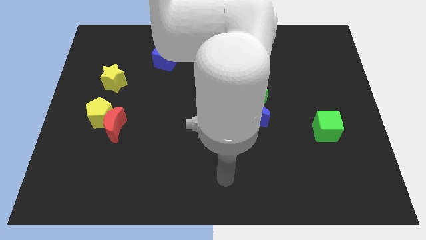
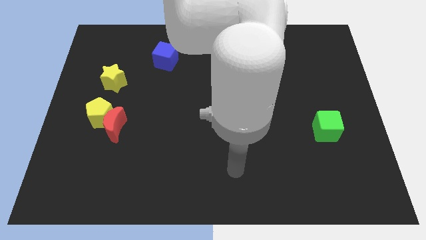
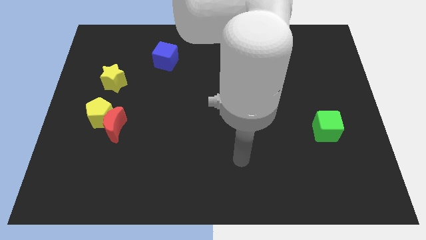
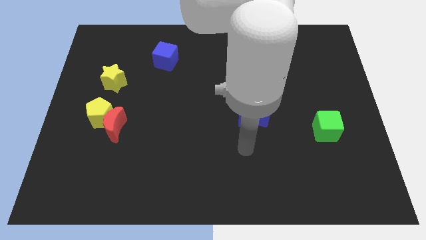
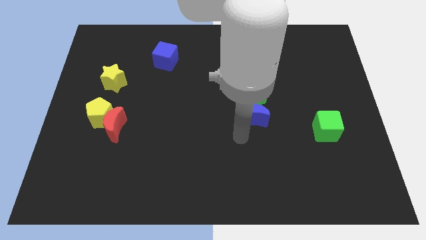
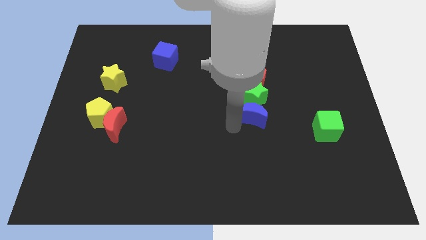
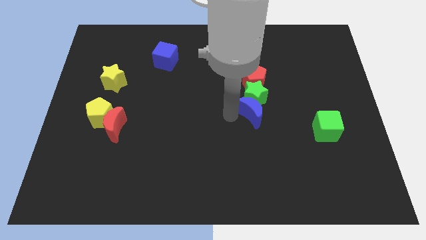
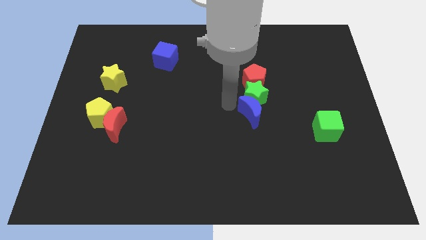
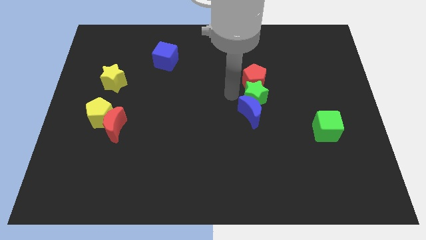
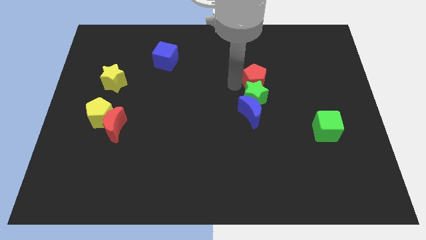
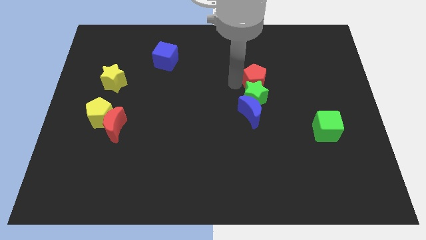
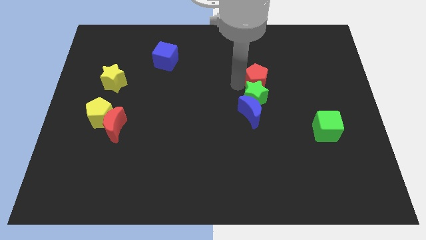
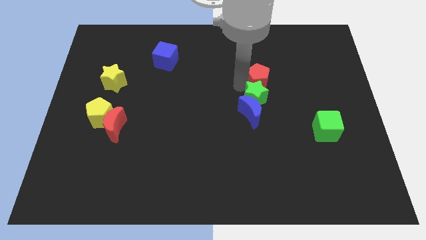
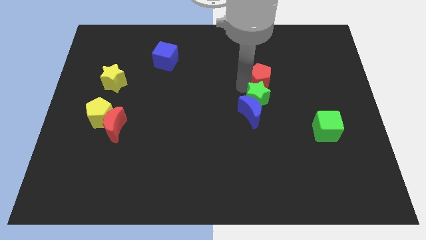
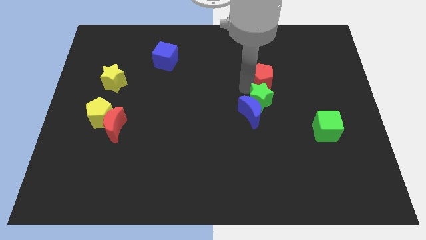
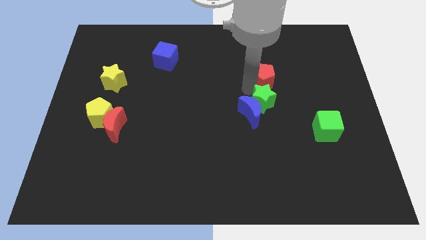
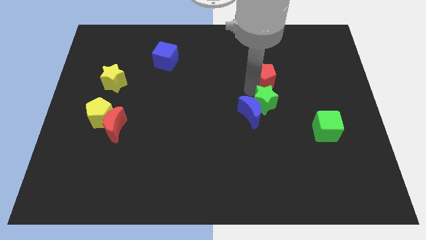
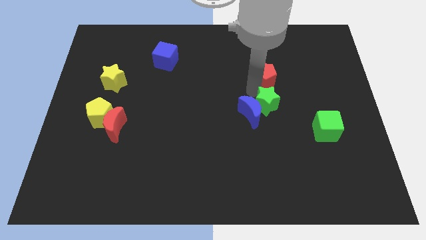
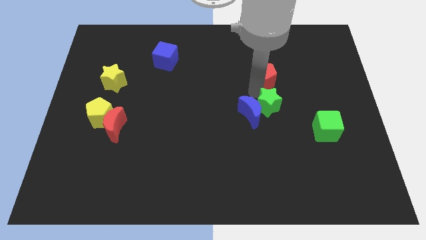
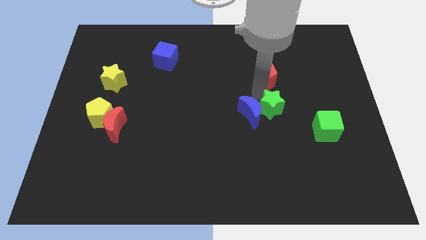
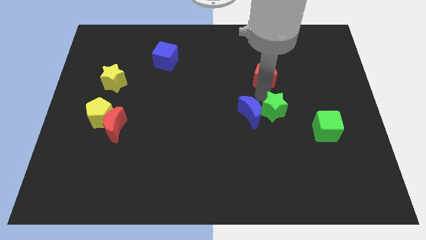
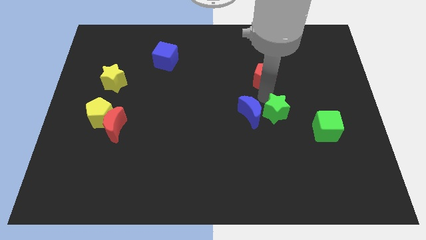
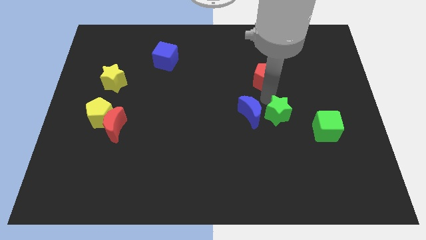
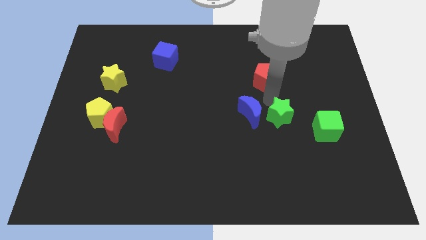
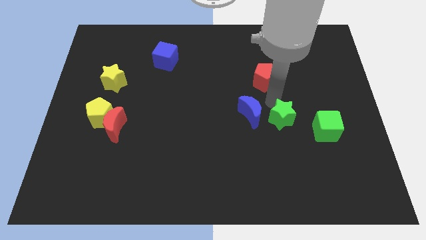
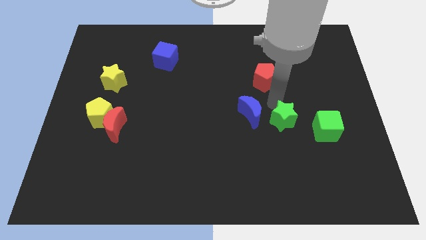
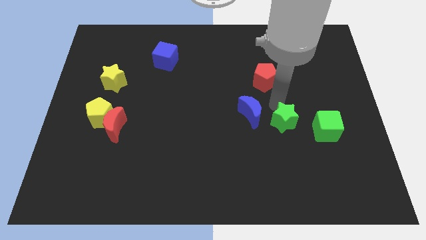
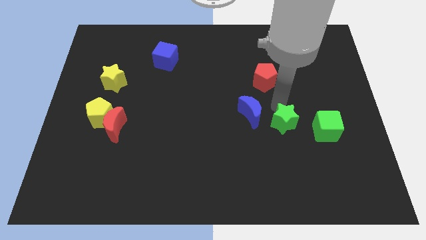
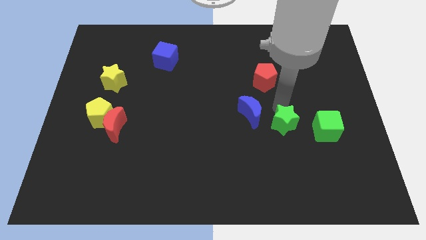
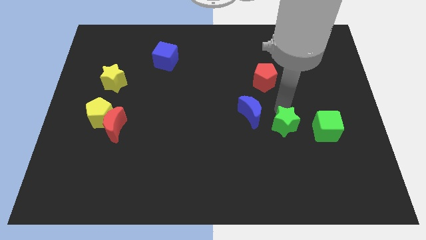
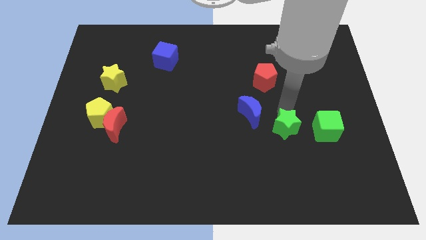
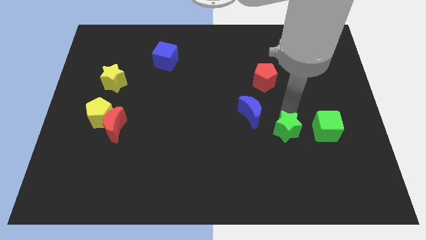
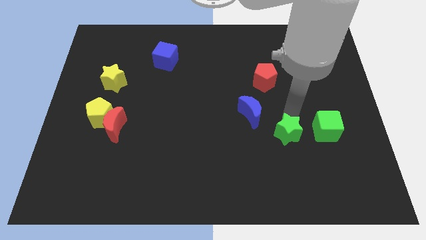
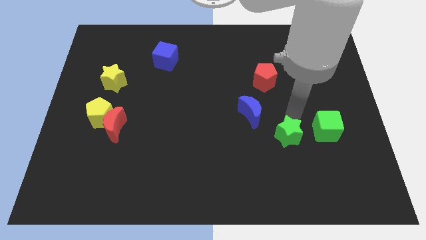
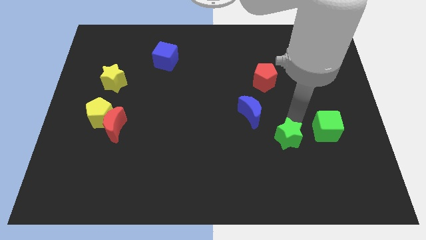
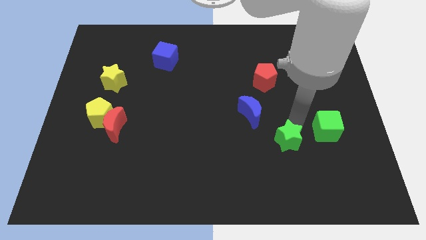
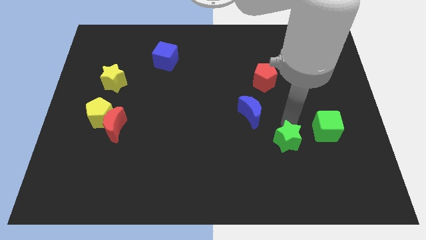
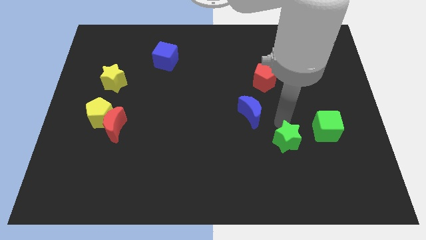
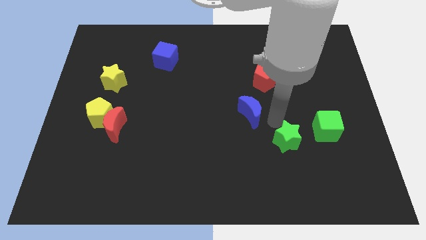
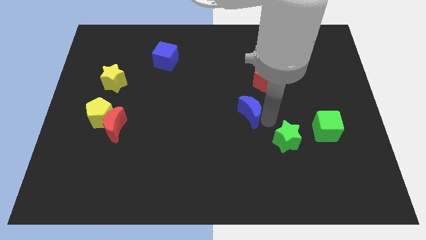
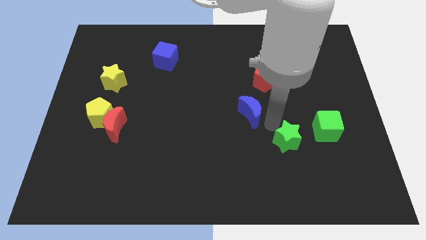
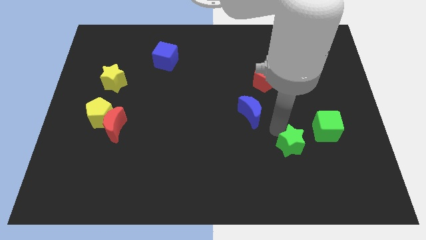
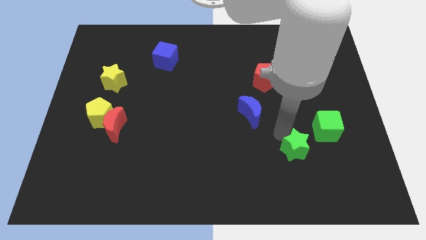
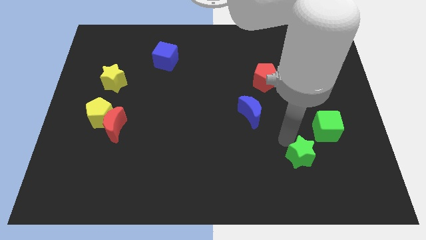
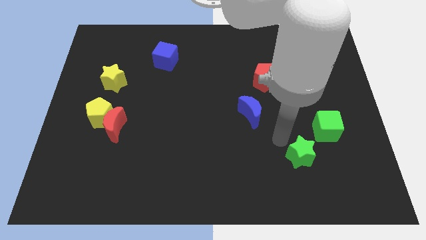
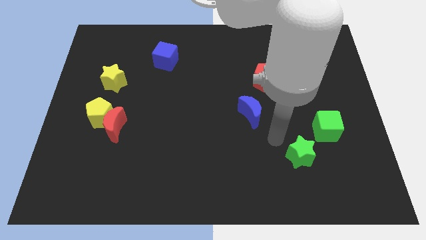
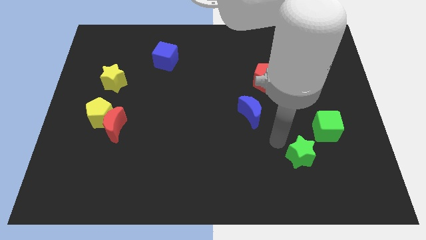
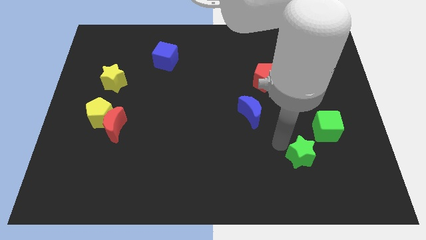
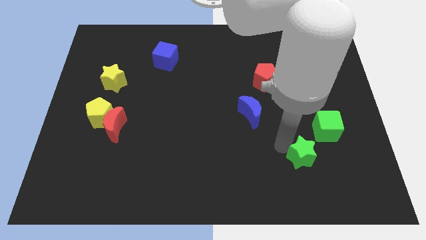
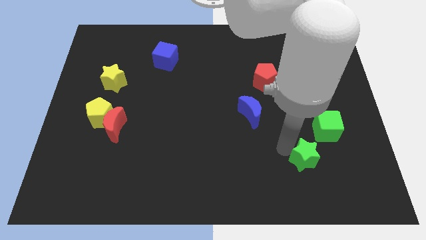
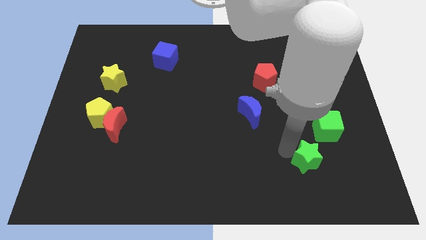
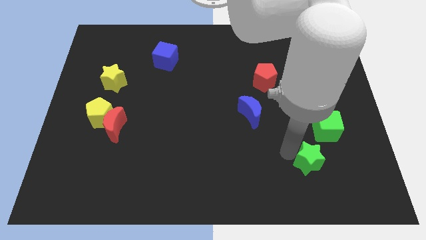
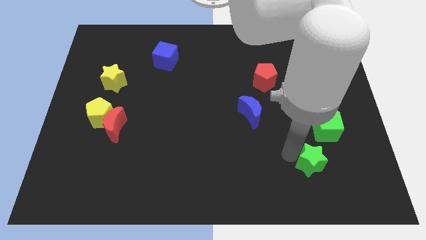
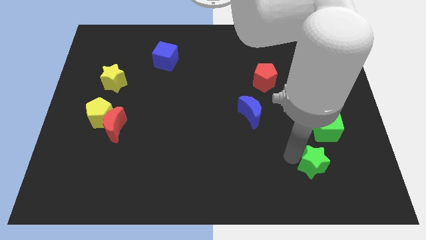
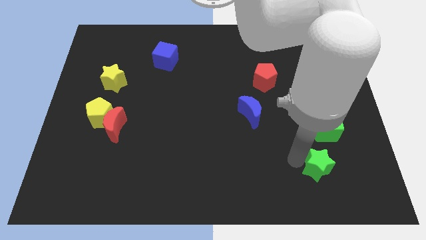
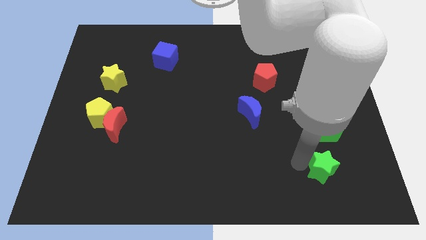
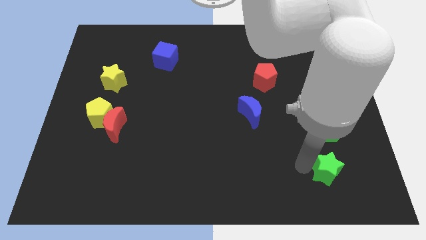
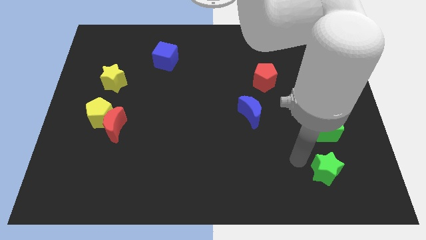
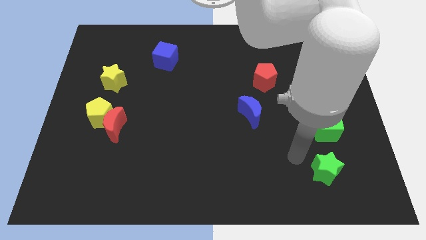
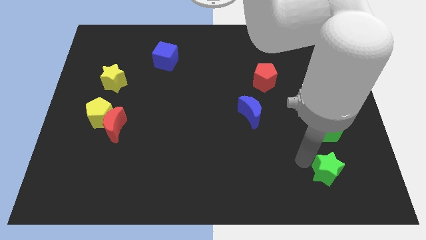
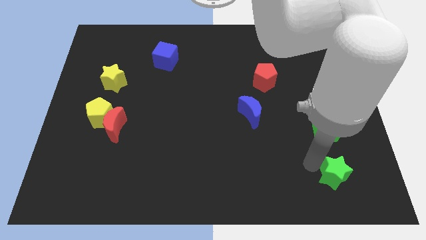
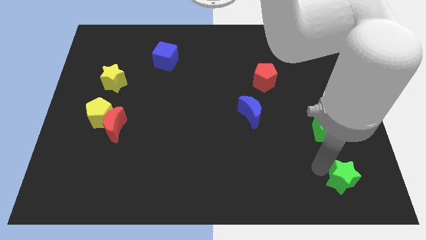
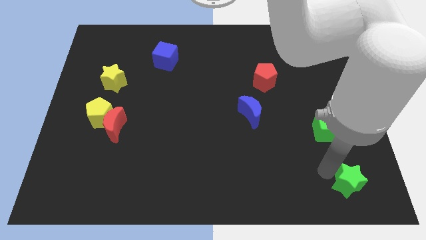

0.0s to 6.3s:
push the green star to the bottom right of the board

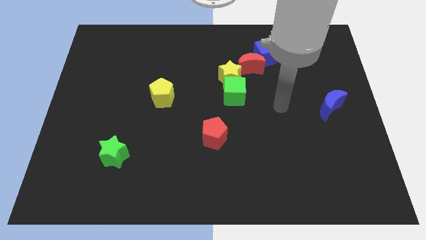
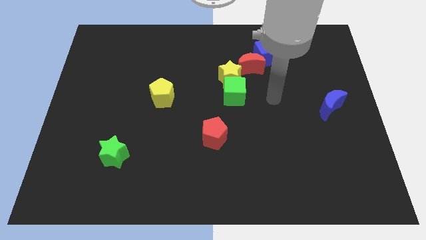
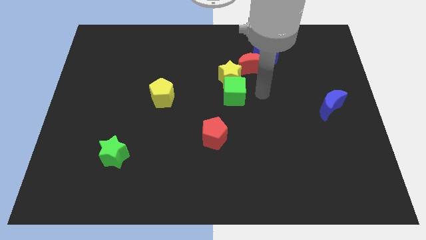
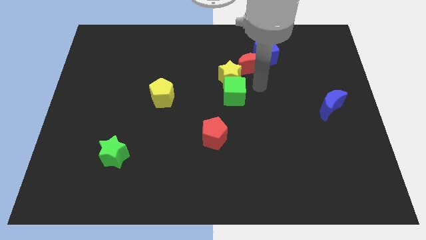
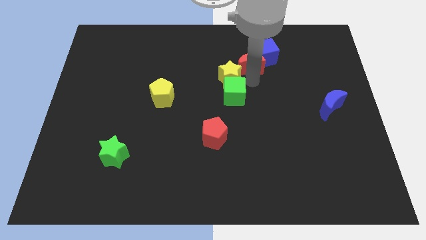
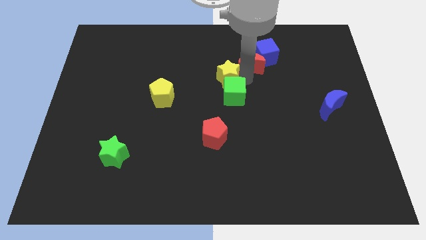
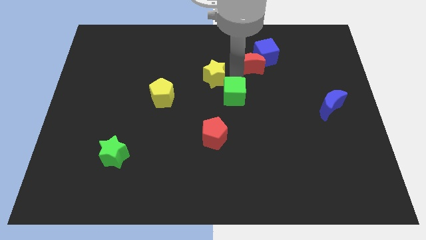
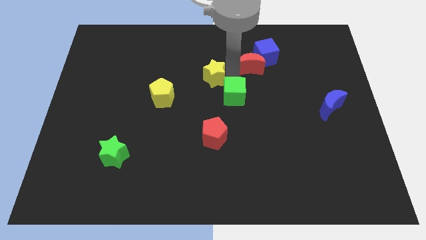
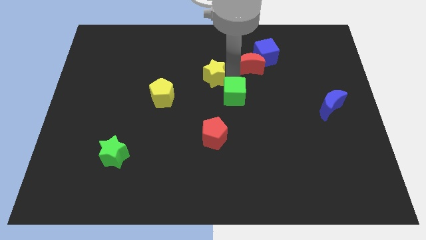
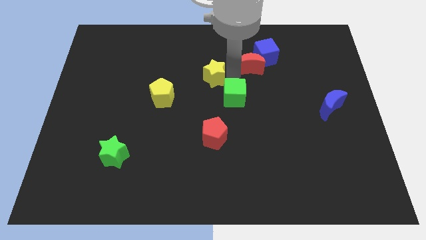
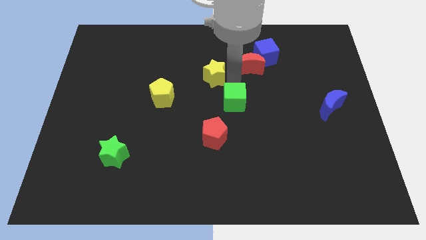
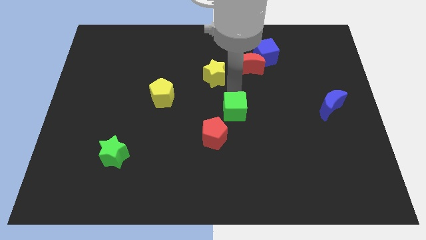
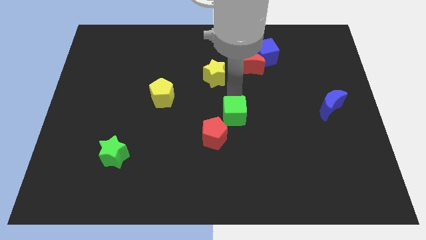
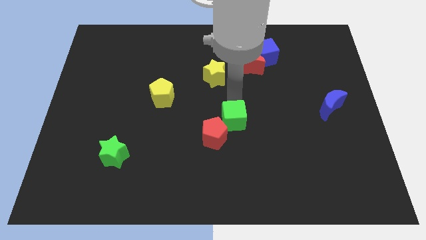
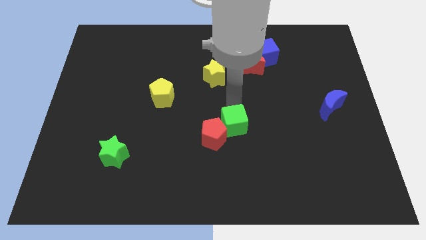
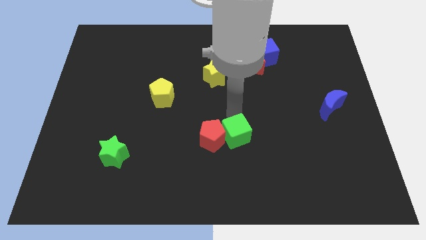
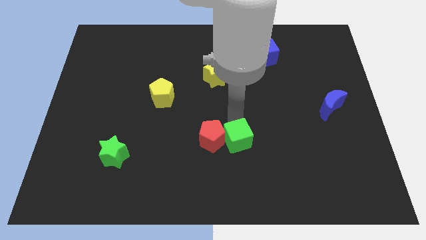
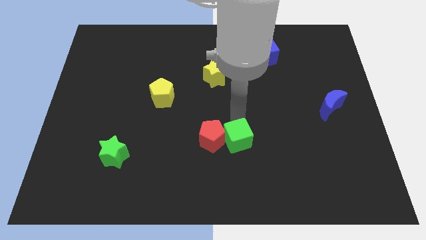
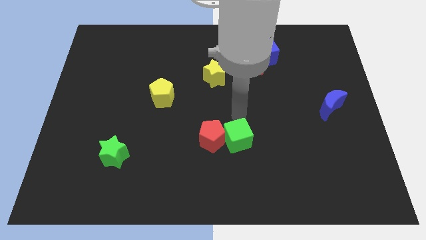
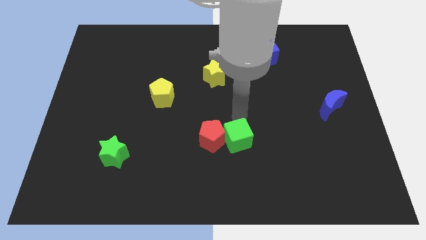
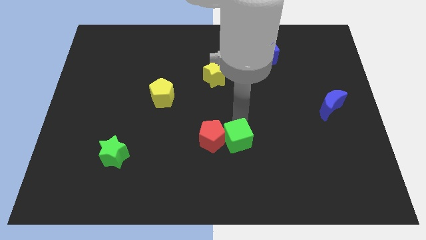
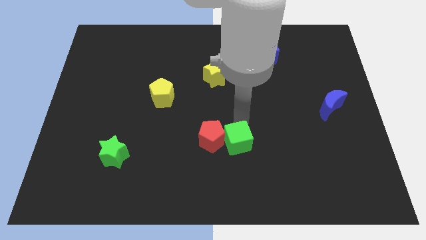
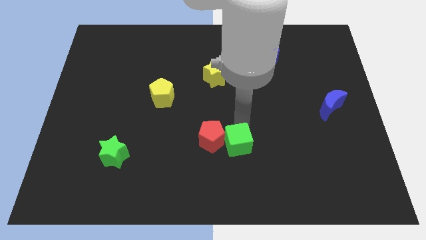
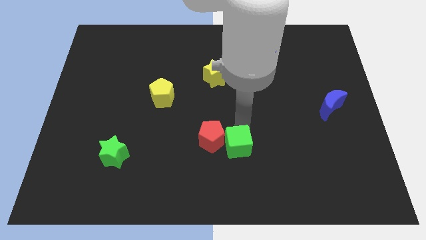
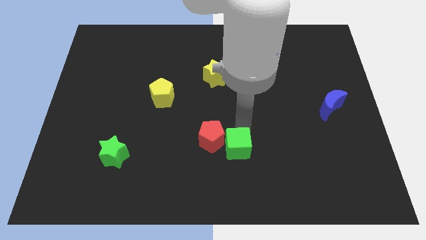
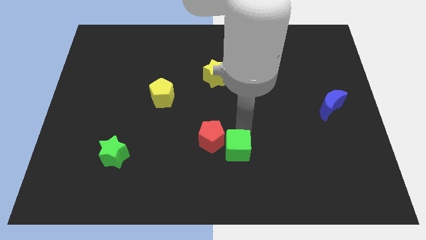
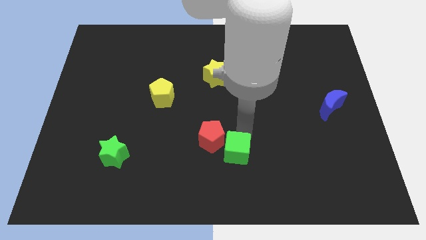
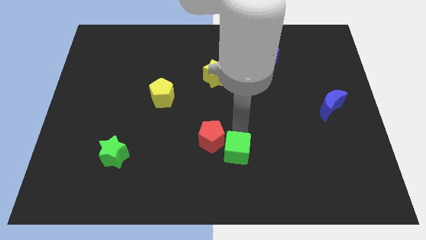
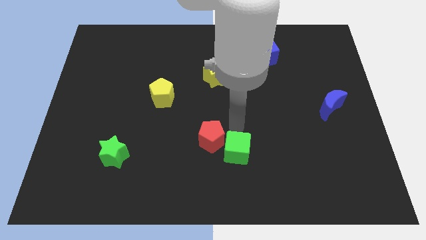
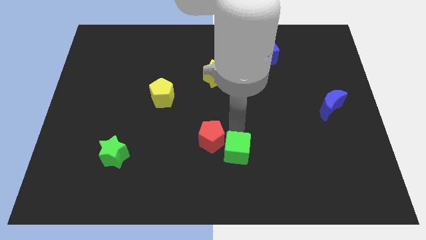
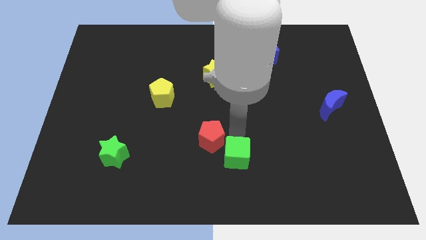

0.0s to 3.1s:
move the green cube to the bottom
